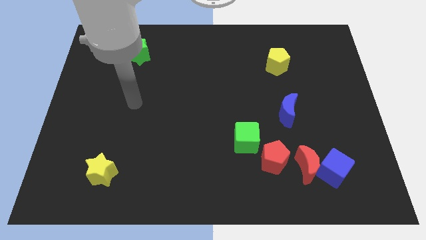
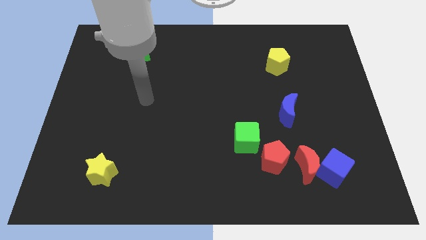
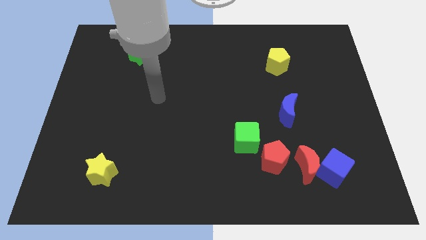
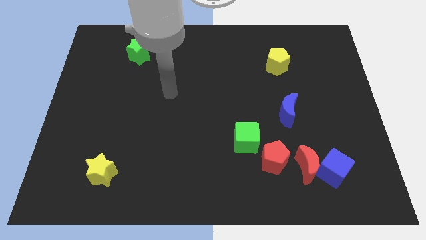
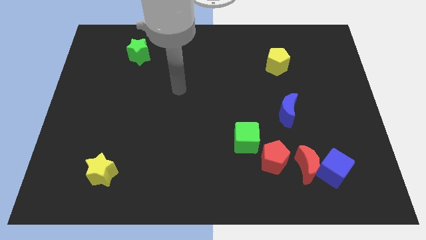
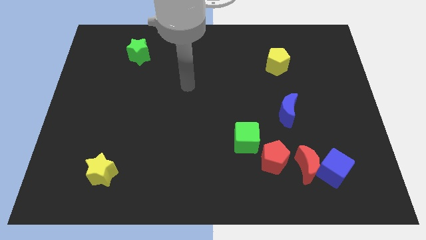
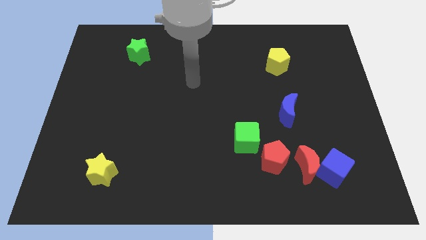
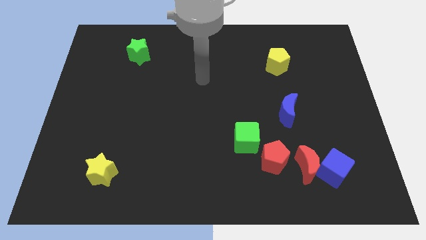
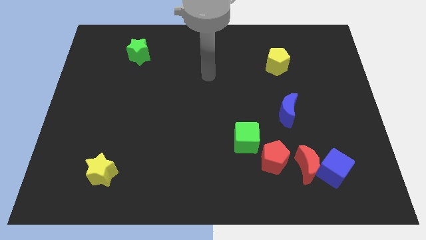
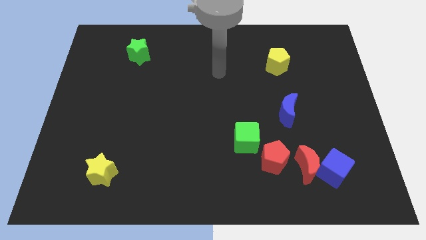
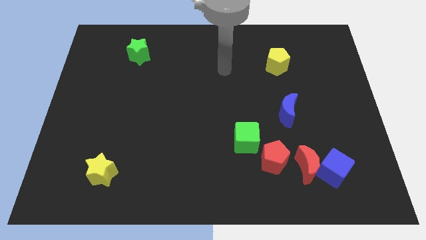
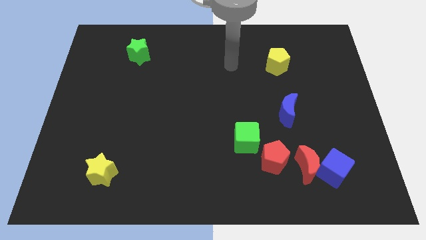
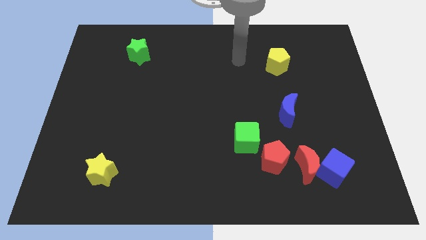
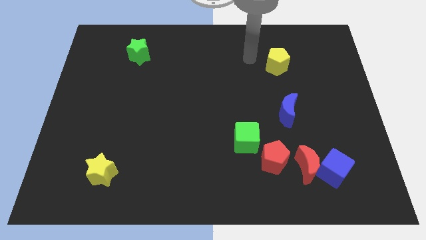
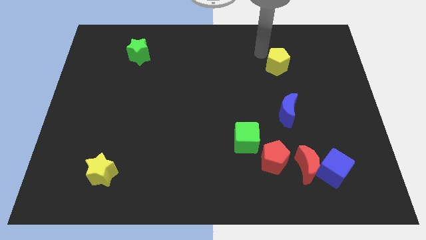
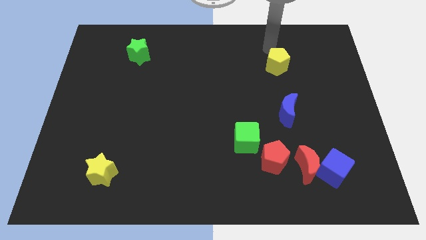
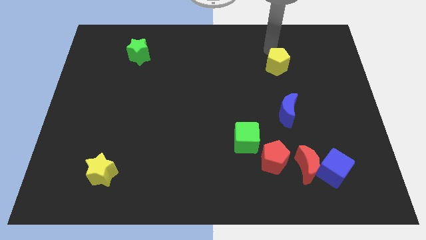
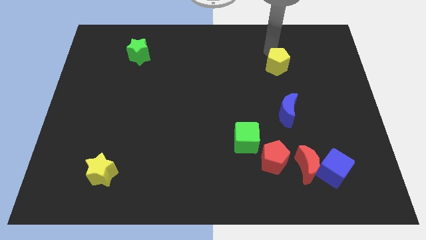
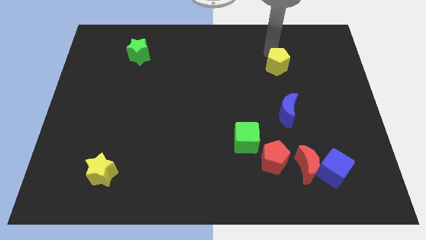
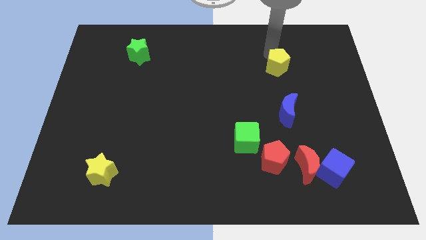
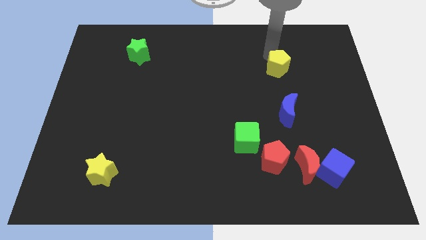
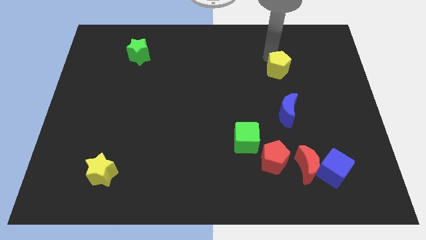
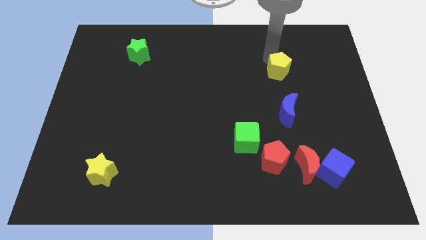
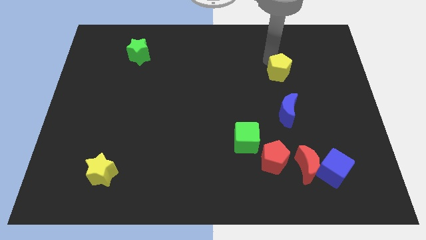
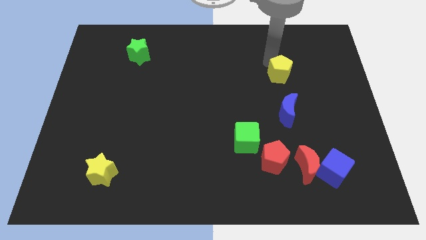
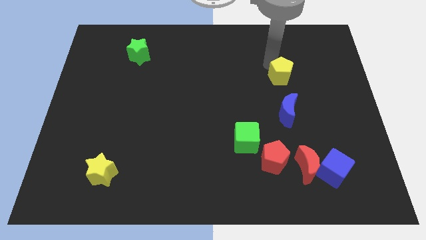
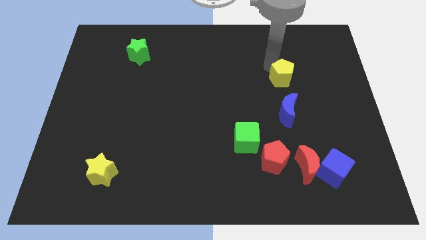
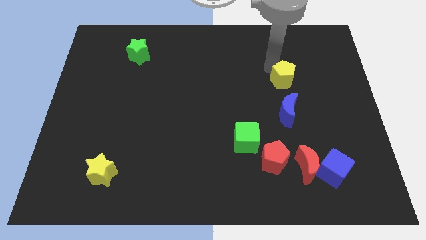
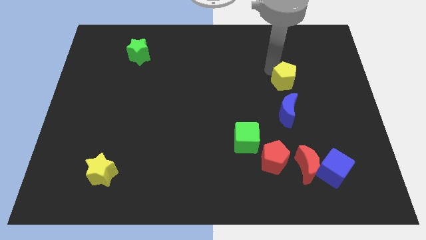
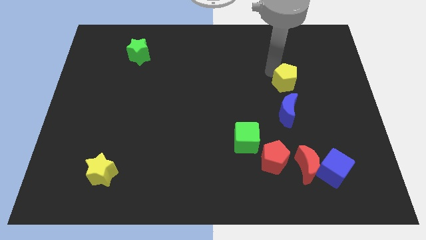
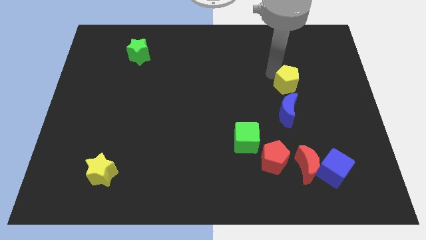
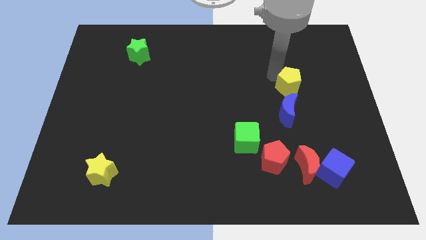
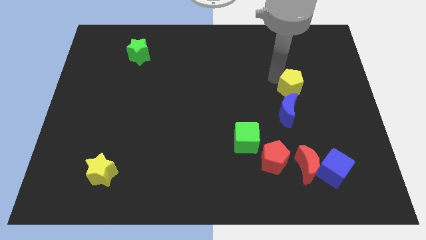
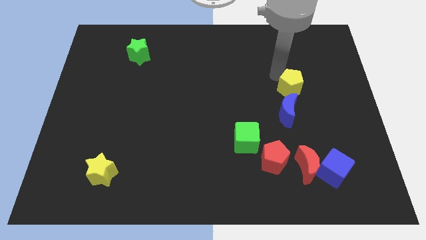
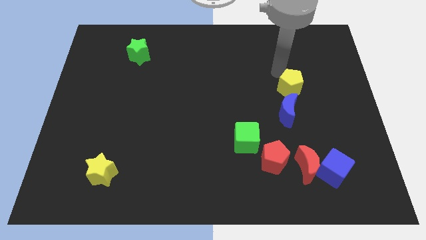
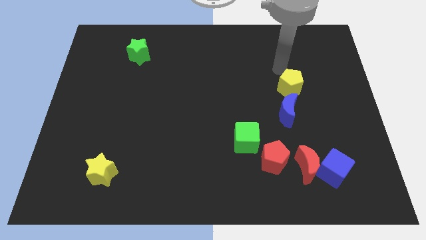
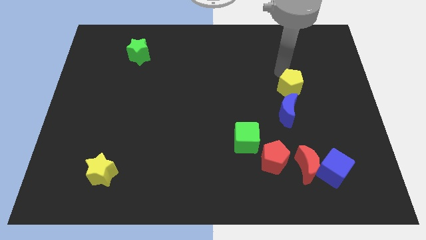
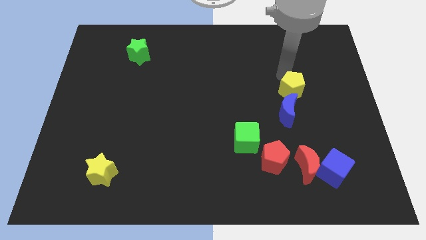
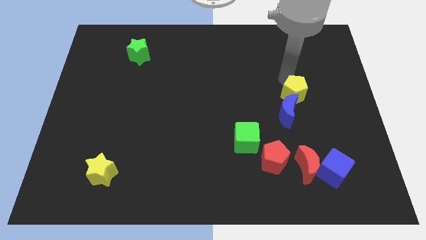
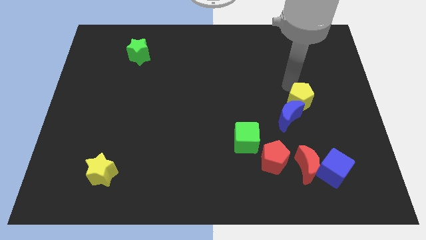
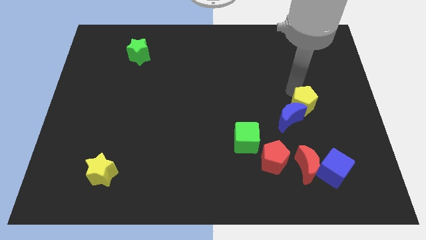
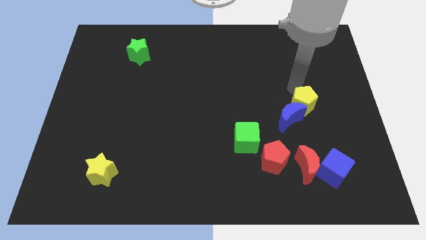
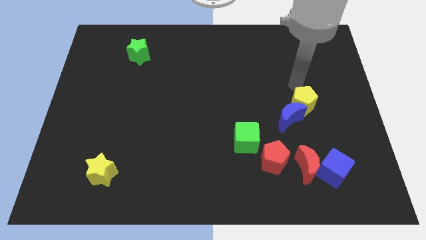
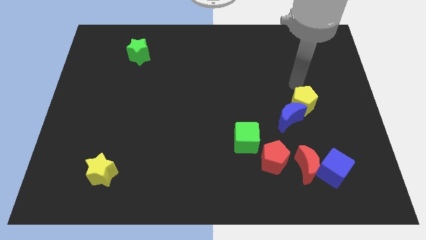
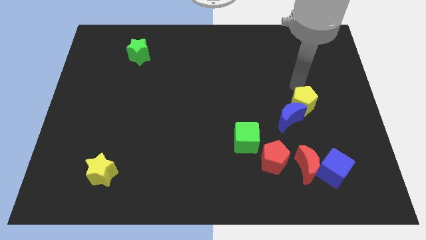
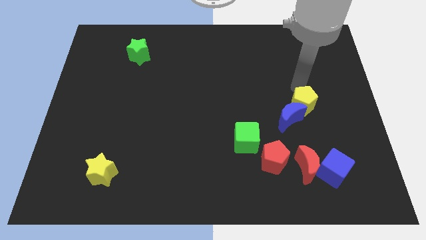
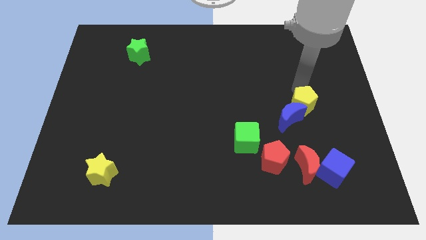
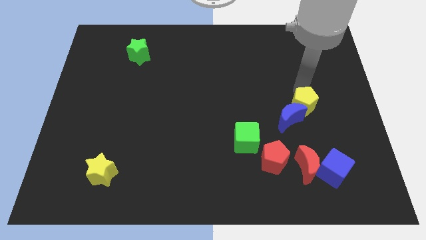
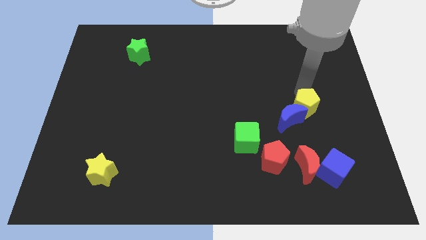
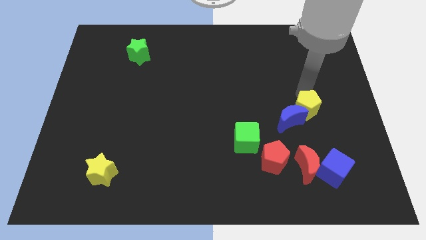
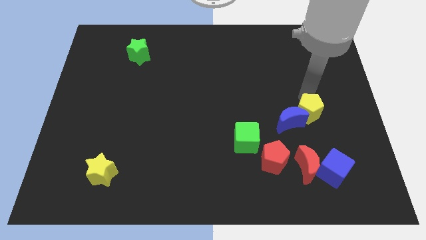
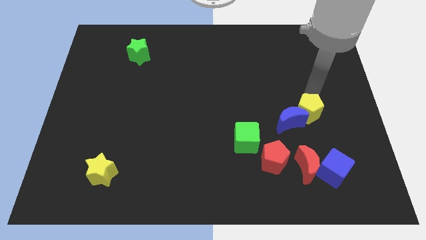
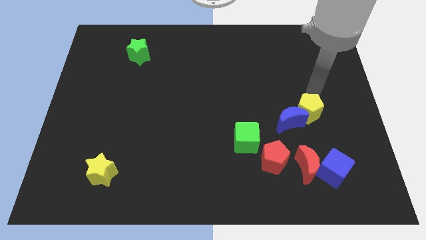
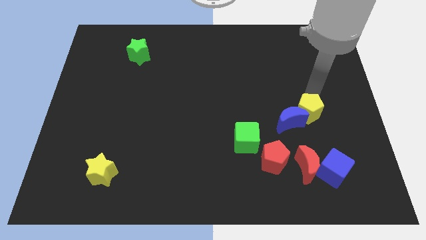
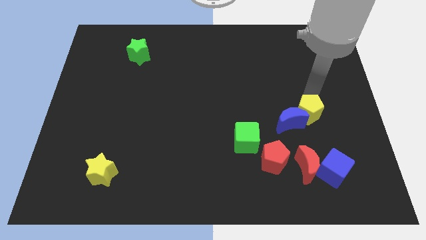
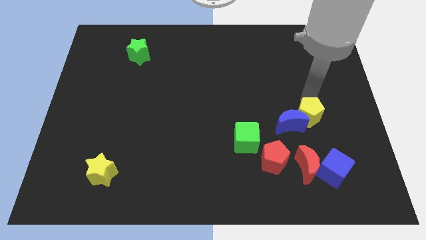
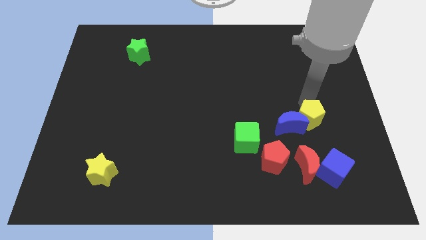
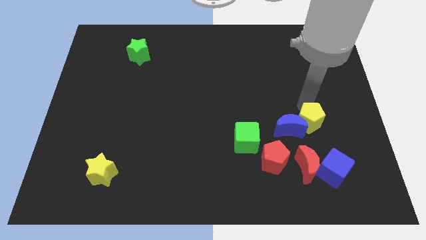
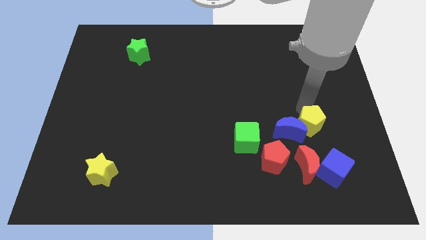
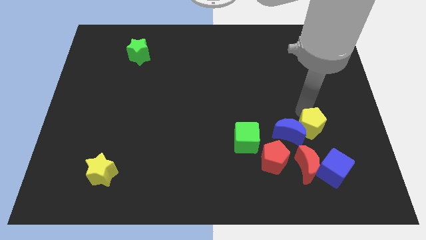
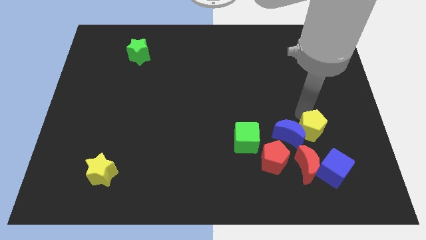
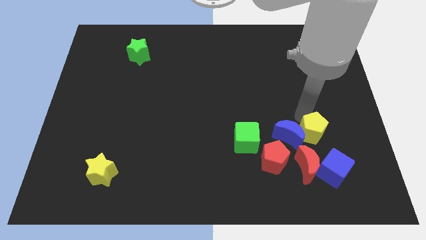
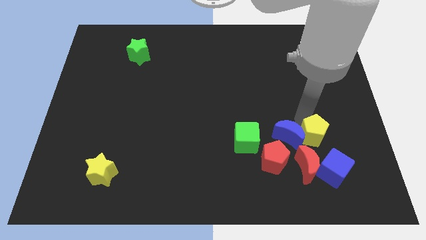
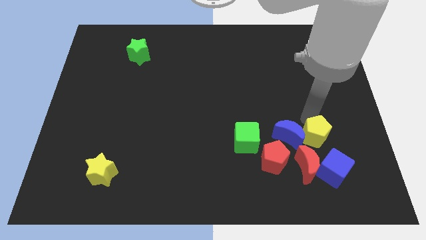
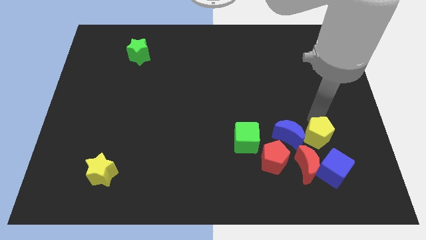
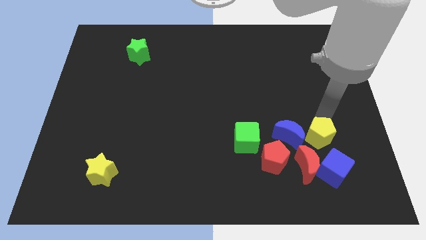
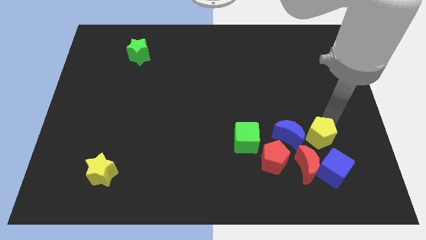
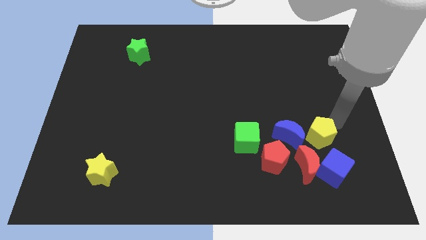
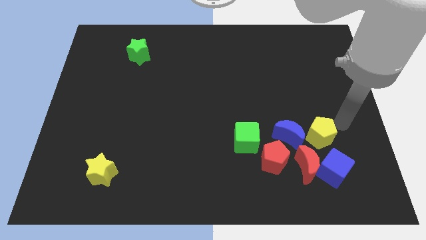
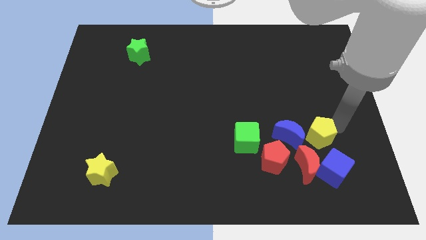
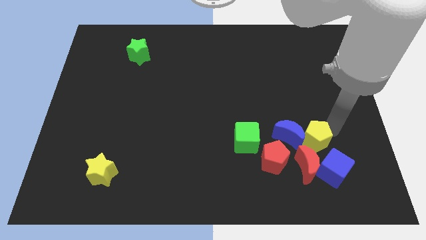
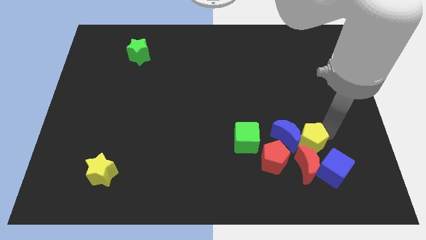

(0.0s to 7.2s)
move the yellow pentagon next to the red moon

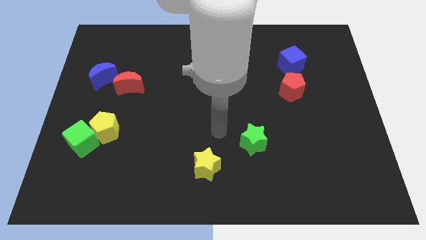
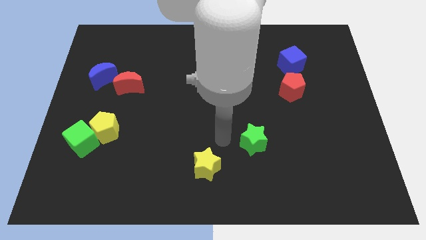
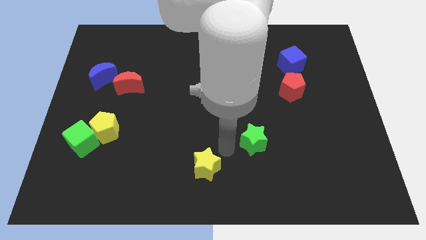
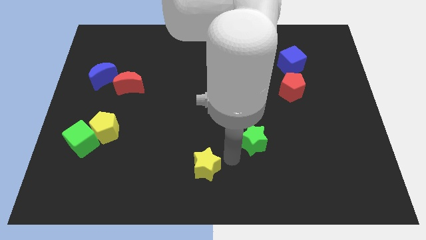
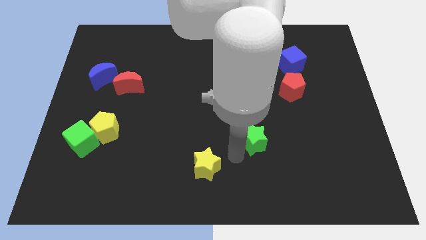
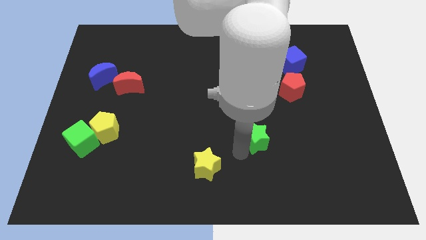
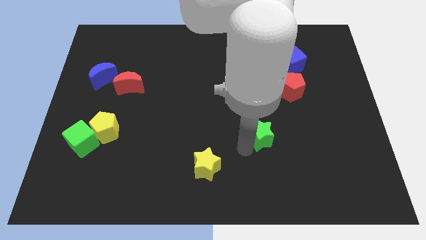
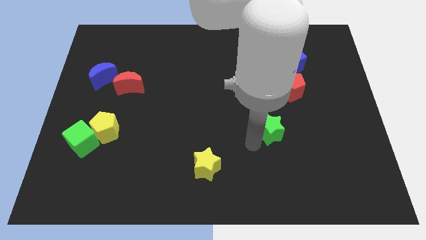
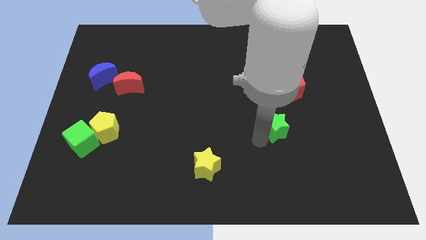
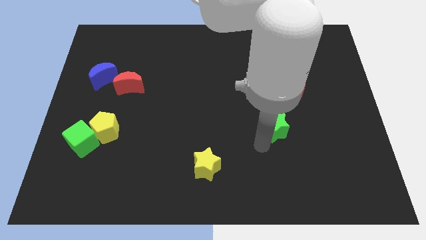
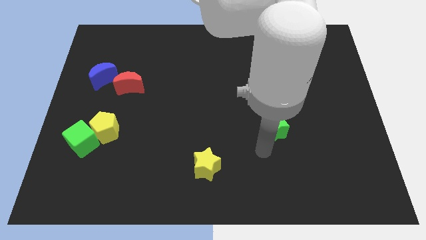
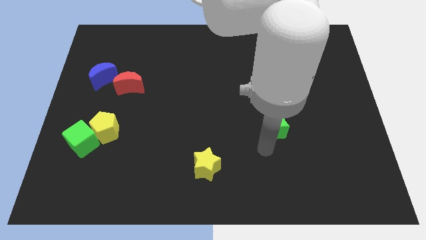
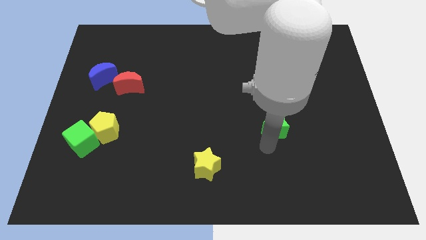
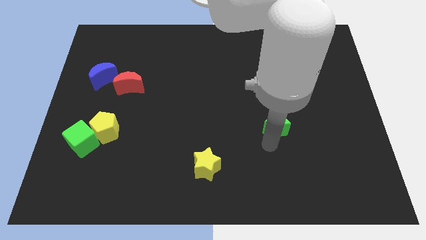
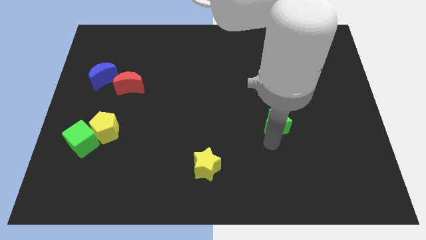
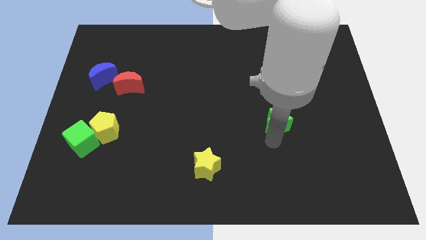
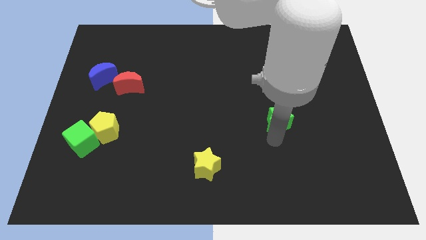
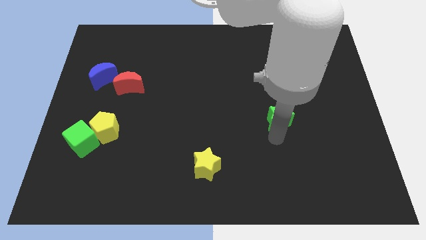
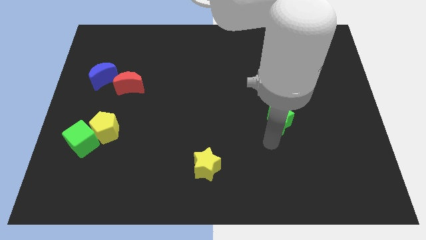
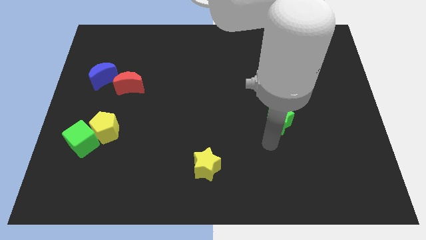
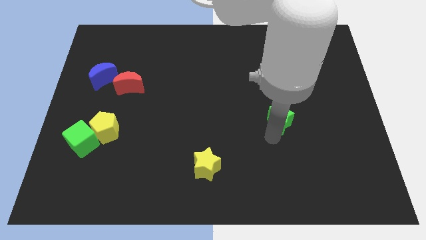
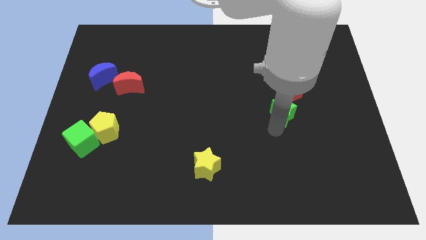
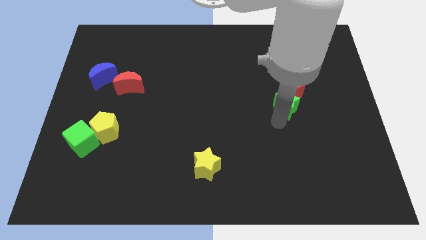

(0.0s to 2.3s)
push the green star towards the red pentagon
